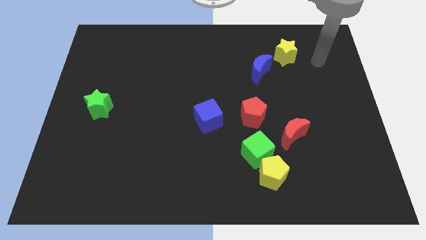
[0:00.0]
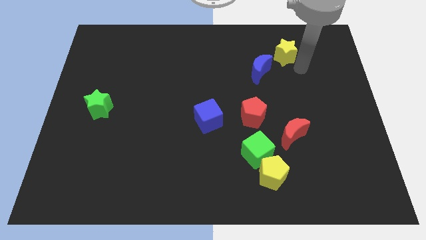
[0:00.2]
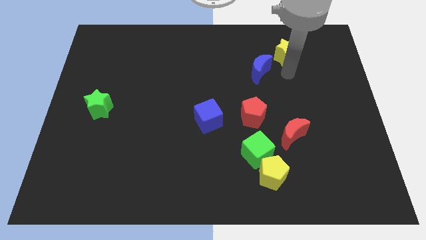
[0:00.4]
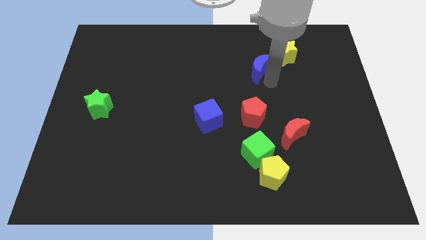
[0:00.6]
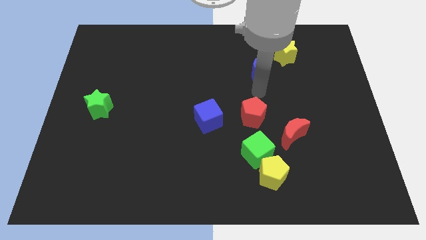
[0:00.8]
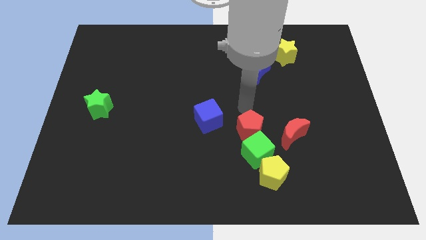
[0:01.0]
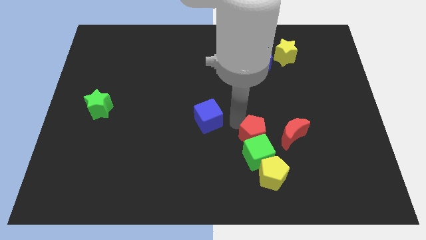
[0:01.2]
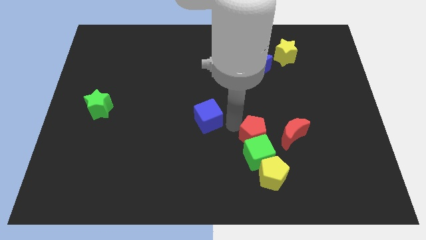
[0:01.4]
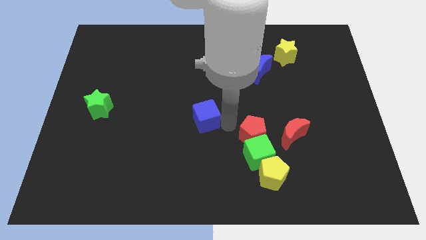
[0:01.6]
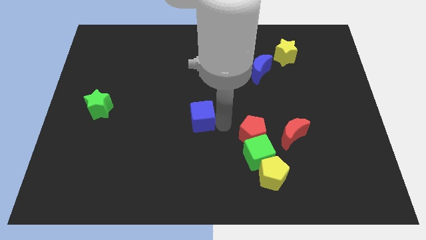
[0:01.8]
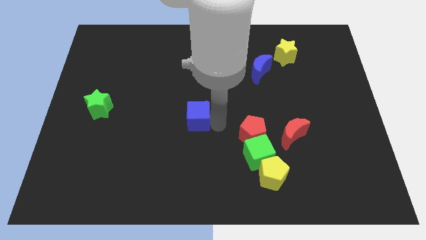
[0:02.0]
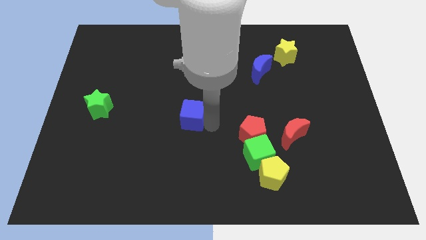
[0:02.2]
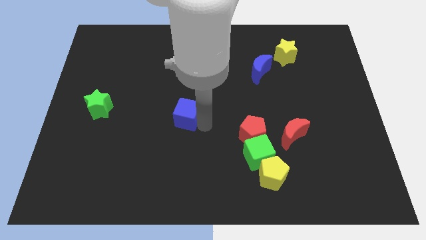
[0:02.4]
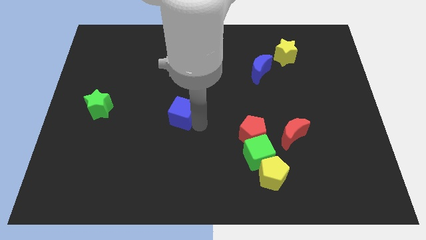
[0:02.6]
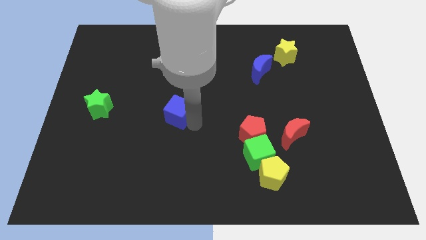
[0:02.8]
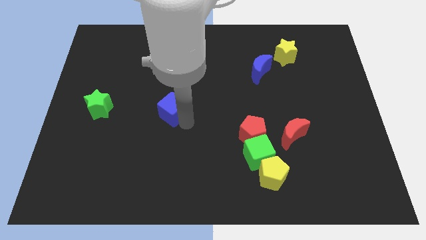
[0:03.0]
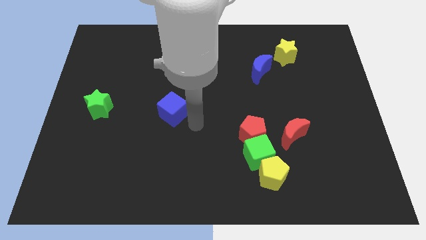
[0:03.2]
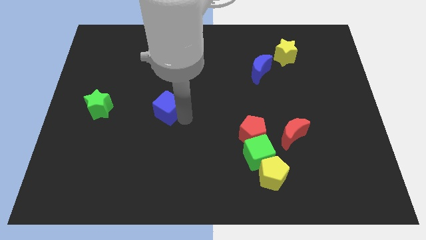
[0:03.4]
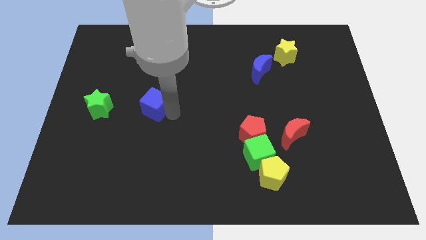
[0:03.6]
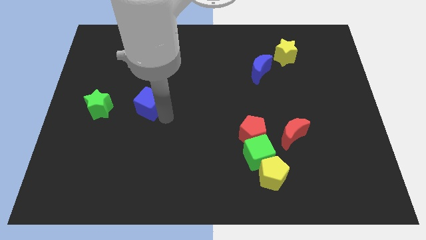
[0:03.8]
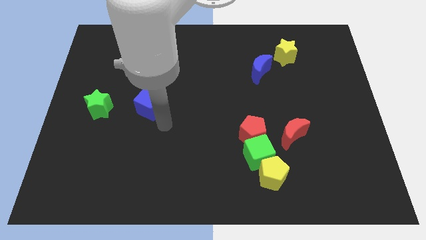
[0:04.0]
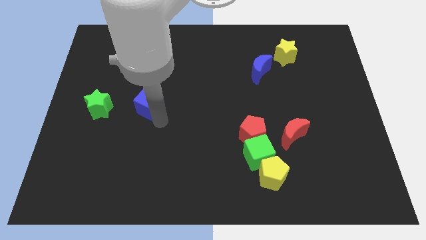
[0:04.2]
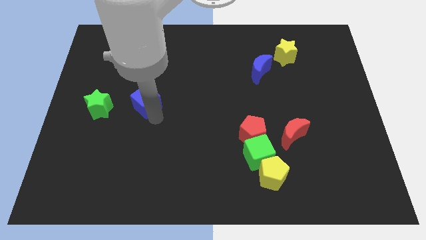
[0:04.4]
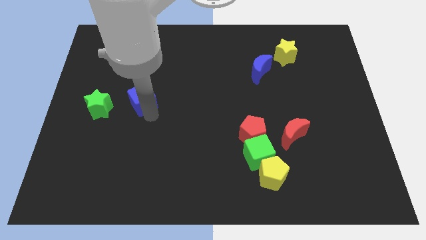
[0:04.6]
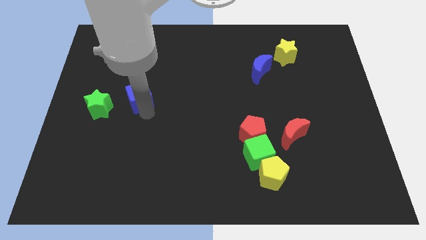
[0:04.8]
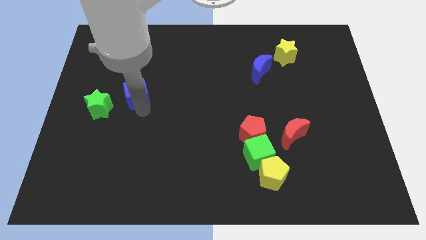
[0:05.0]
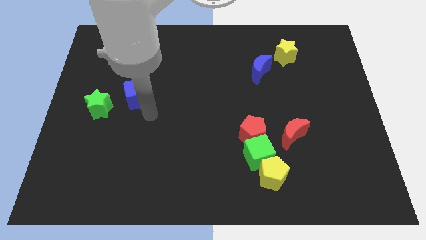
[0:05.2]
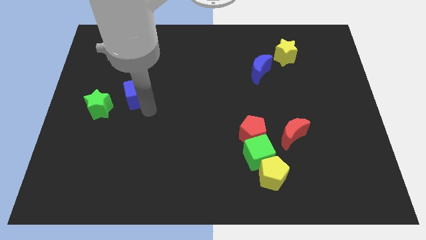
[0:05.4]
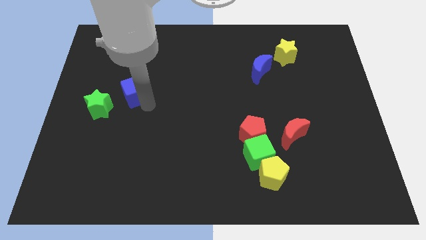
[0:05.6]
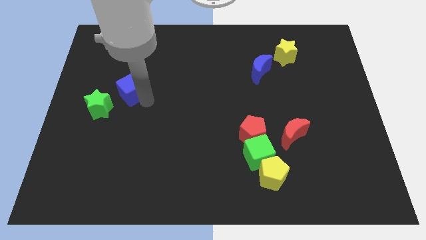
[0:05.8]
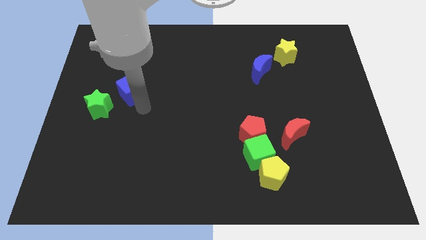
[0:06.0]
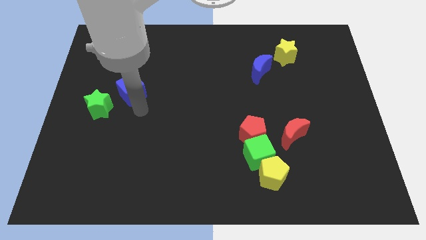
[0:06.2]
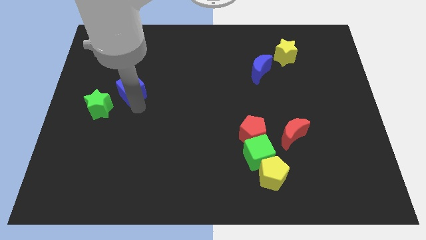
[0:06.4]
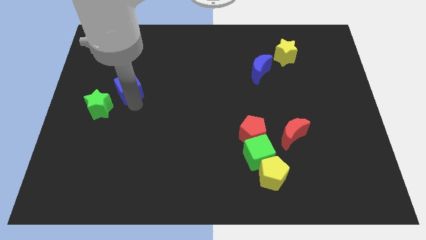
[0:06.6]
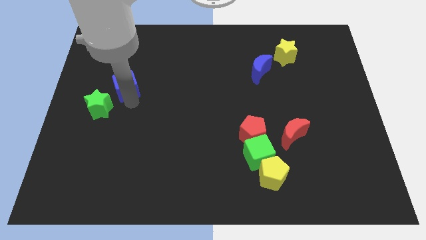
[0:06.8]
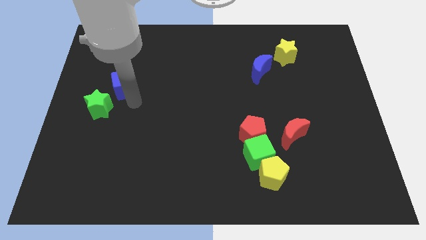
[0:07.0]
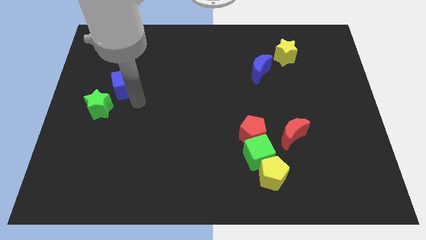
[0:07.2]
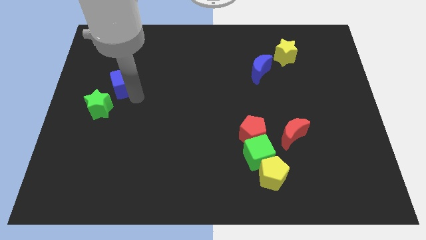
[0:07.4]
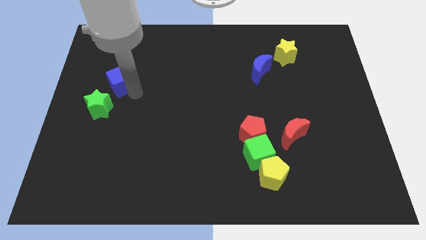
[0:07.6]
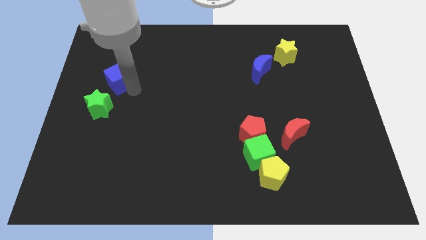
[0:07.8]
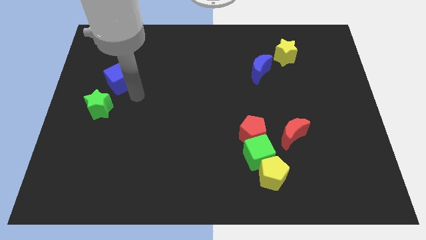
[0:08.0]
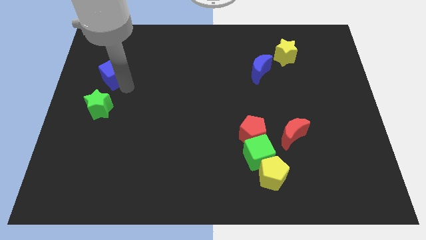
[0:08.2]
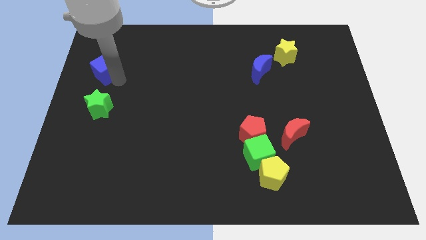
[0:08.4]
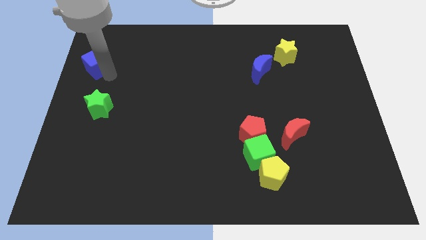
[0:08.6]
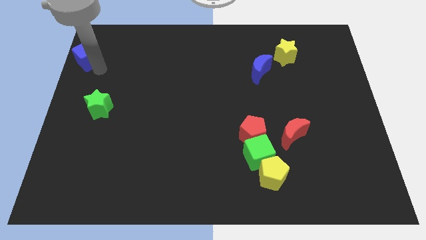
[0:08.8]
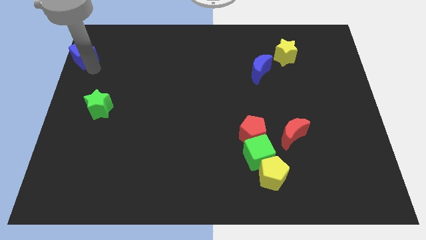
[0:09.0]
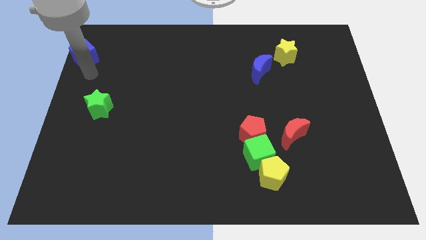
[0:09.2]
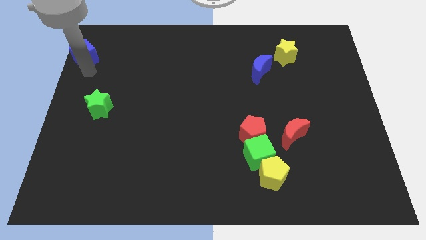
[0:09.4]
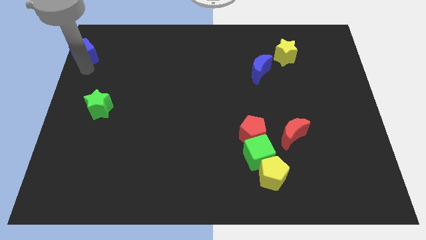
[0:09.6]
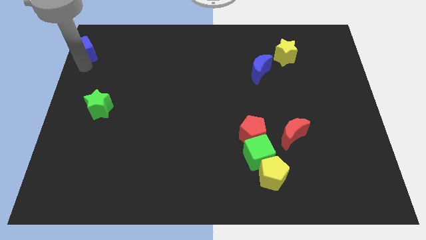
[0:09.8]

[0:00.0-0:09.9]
put the blue cube to the top left
